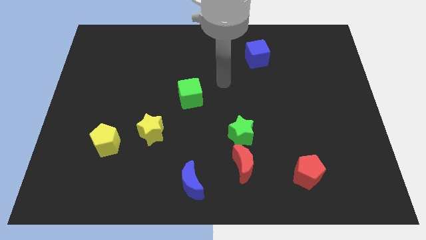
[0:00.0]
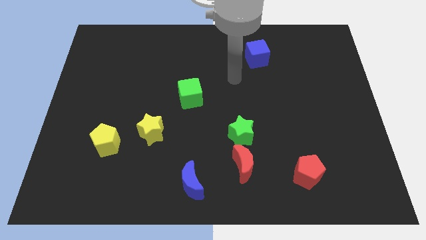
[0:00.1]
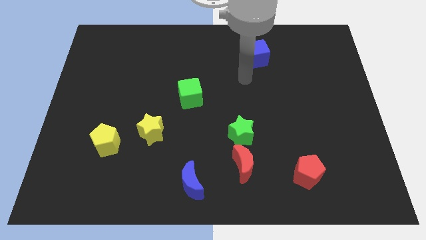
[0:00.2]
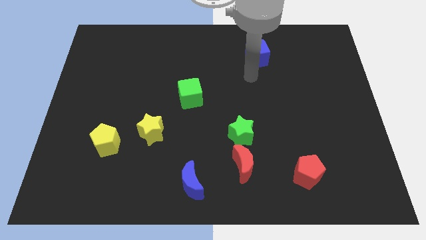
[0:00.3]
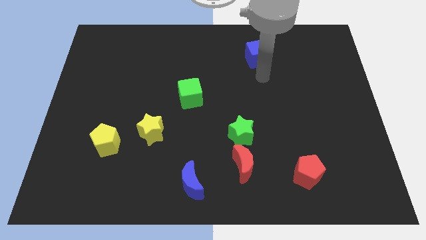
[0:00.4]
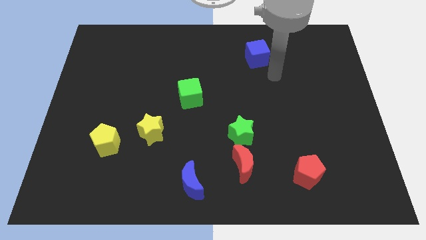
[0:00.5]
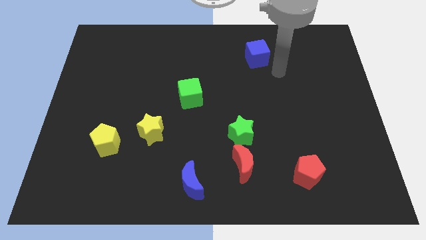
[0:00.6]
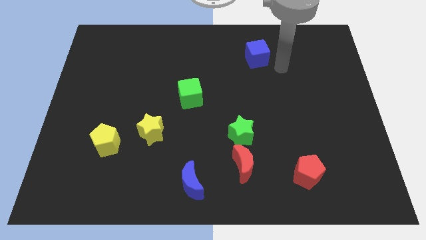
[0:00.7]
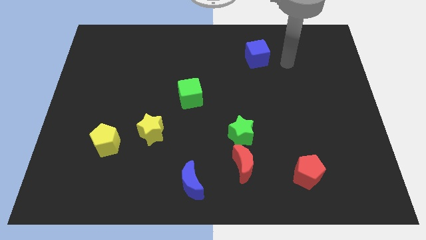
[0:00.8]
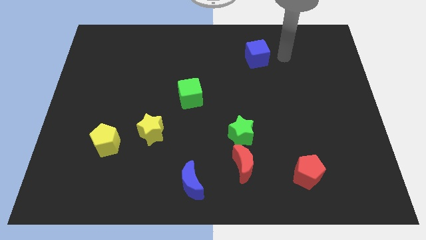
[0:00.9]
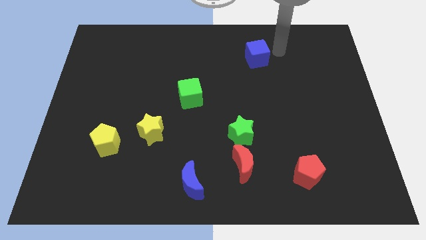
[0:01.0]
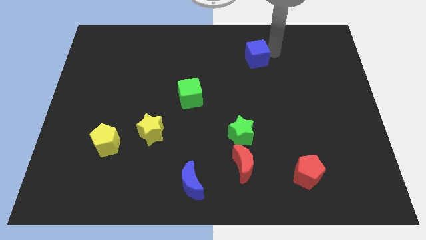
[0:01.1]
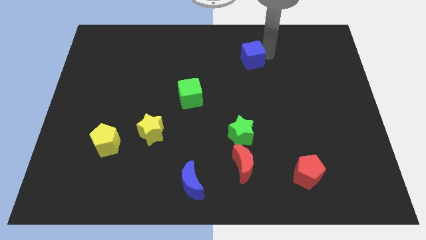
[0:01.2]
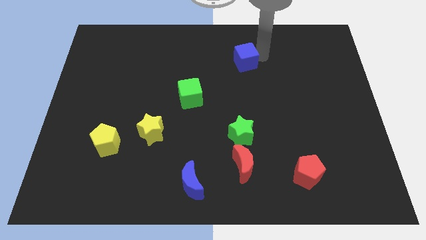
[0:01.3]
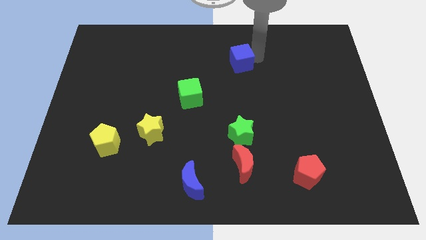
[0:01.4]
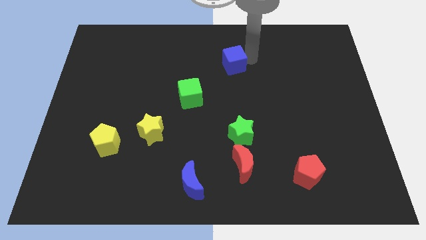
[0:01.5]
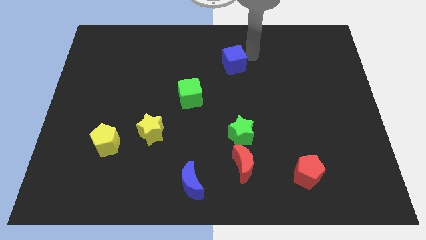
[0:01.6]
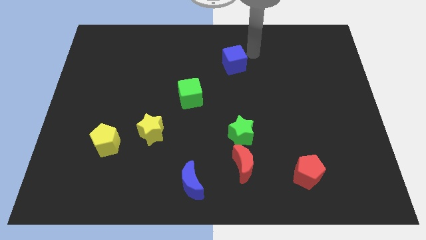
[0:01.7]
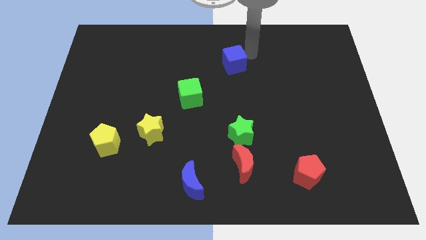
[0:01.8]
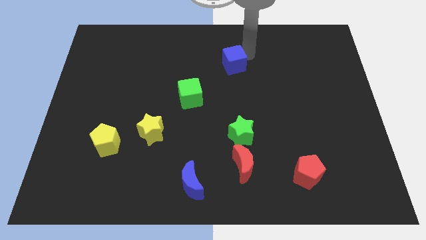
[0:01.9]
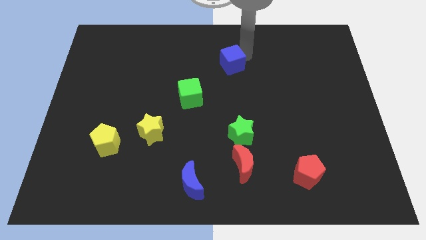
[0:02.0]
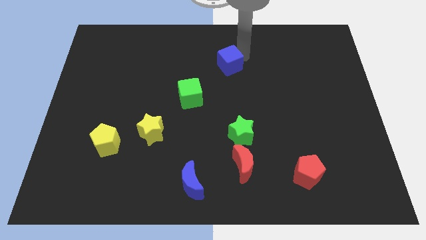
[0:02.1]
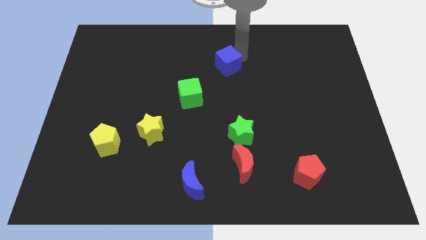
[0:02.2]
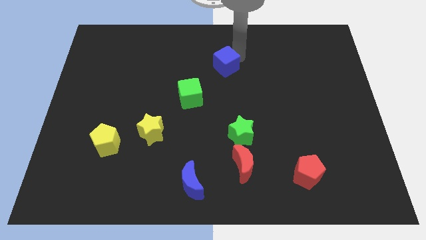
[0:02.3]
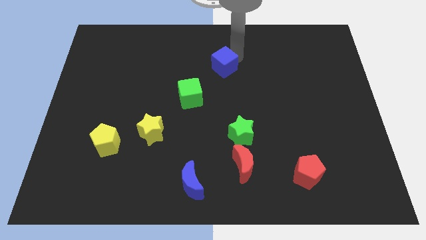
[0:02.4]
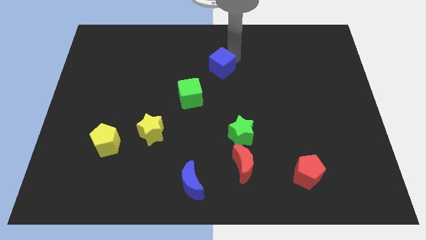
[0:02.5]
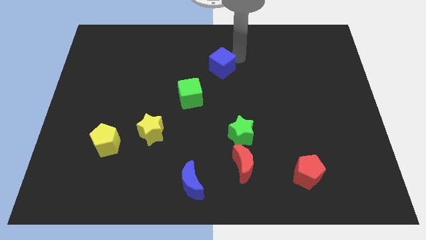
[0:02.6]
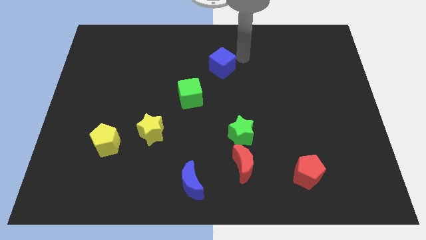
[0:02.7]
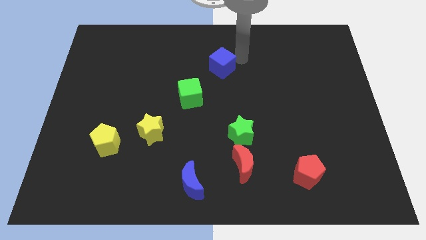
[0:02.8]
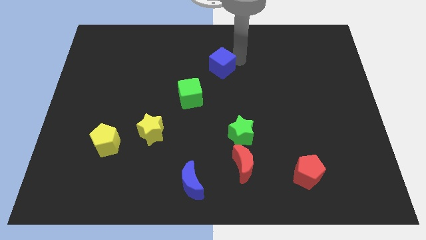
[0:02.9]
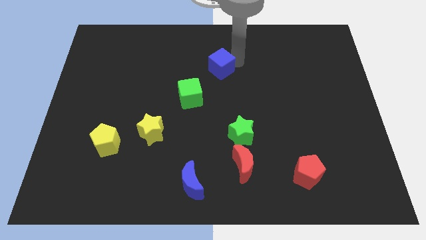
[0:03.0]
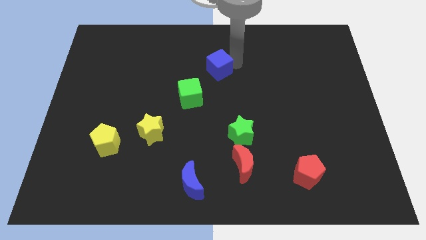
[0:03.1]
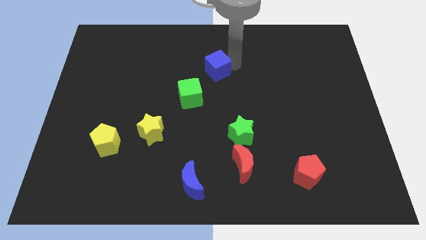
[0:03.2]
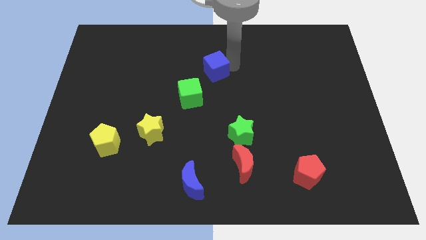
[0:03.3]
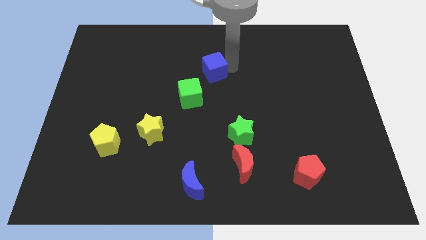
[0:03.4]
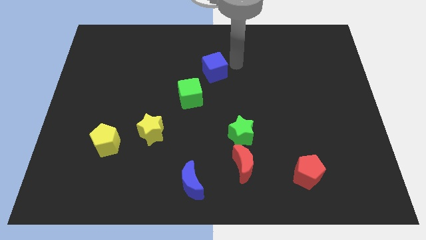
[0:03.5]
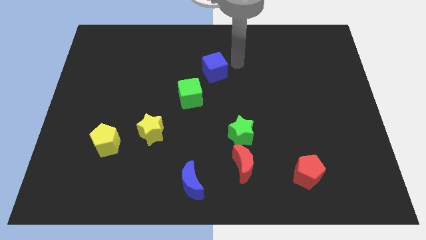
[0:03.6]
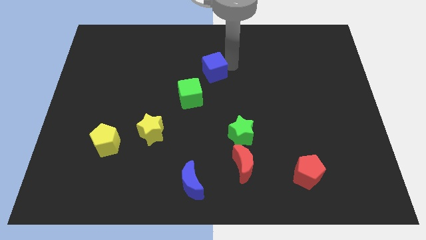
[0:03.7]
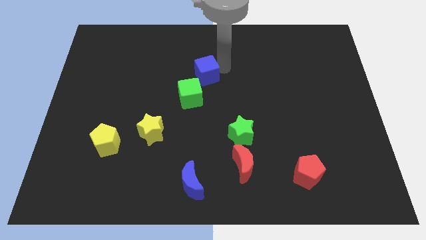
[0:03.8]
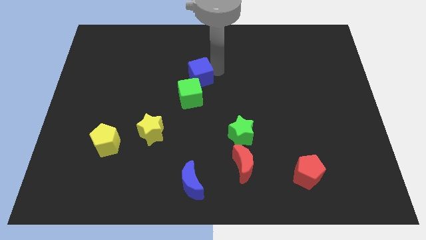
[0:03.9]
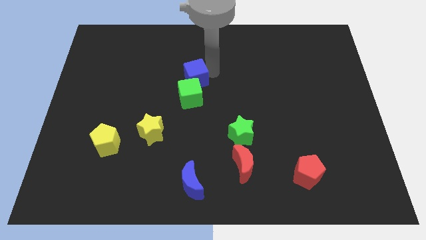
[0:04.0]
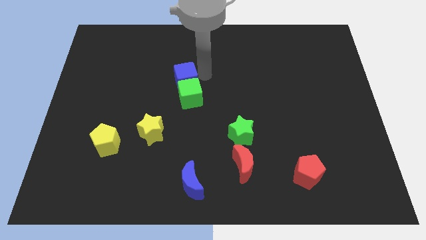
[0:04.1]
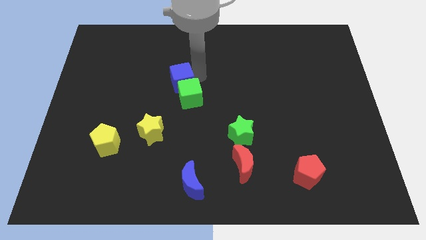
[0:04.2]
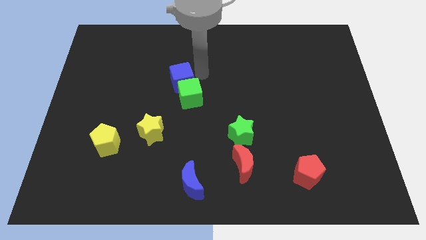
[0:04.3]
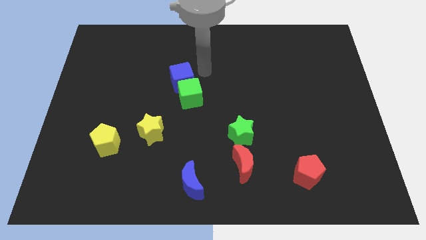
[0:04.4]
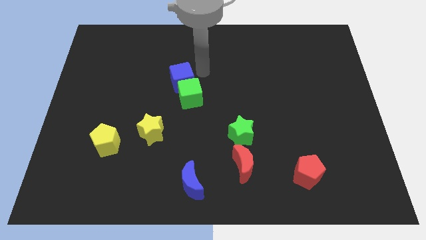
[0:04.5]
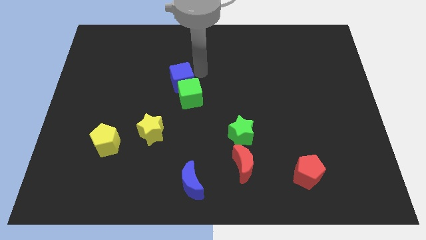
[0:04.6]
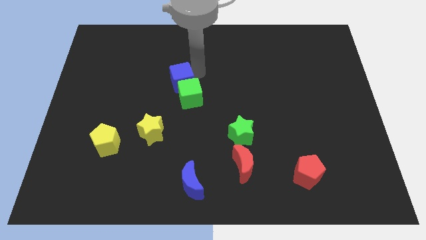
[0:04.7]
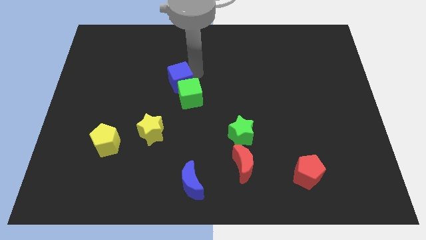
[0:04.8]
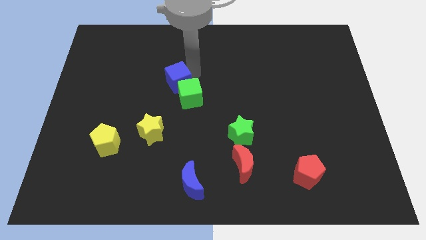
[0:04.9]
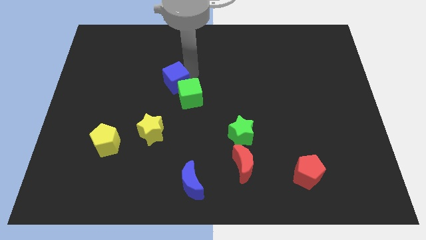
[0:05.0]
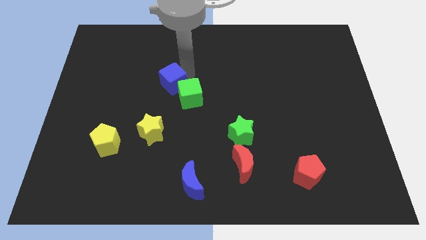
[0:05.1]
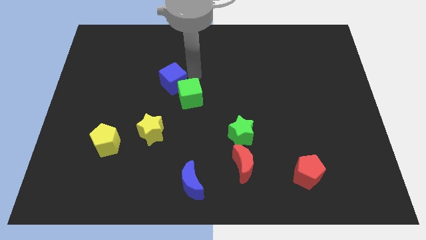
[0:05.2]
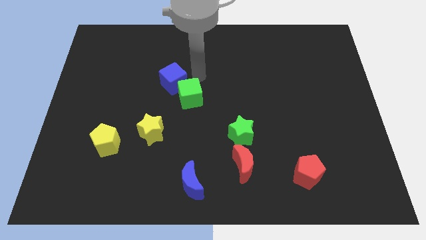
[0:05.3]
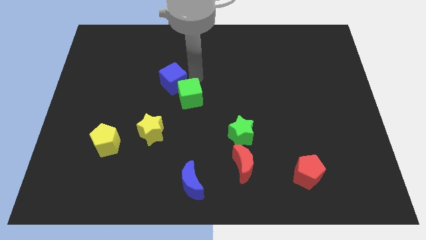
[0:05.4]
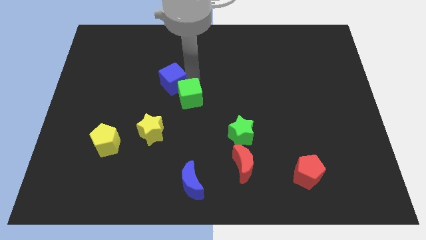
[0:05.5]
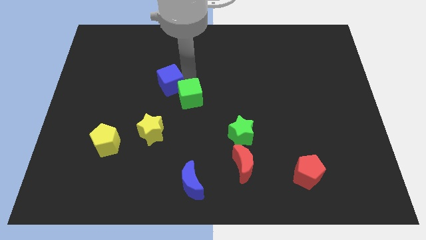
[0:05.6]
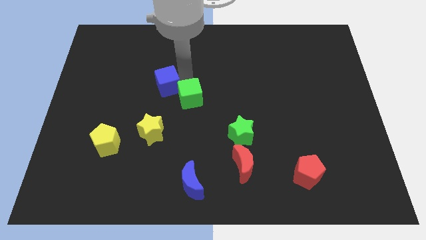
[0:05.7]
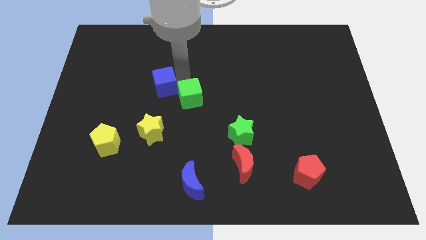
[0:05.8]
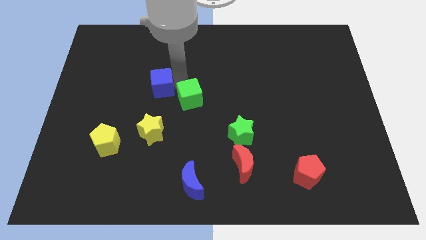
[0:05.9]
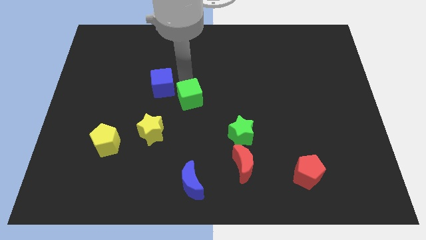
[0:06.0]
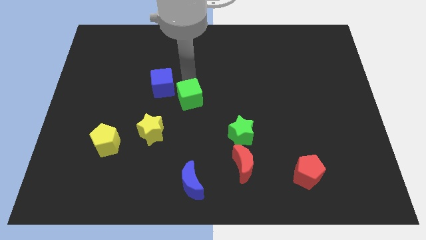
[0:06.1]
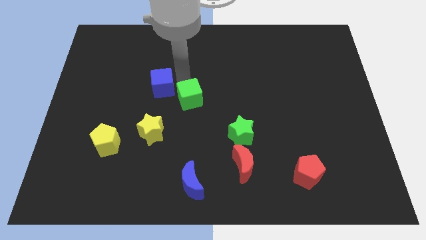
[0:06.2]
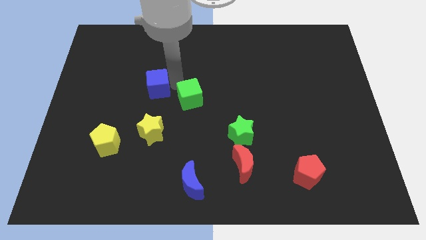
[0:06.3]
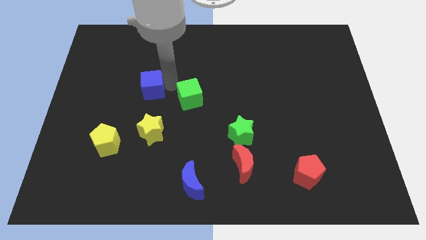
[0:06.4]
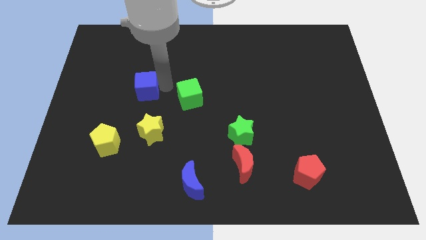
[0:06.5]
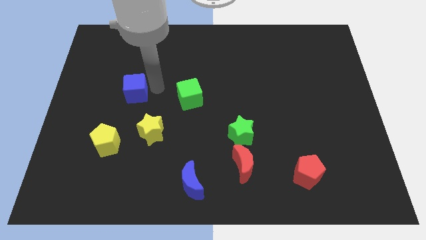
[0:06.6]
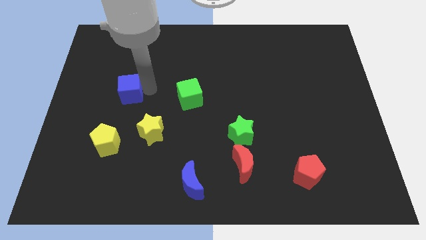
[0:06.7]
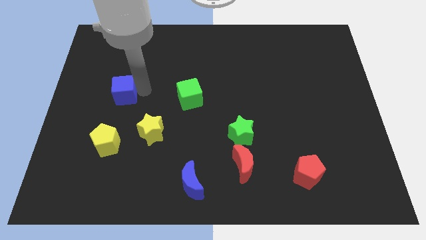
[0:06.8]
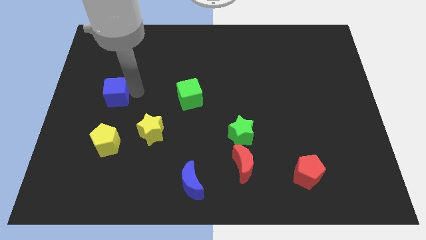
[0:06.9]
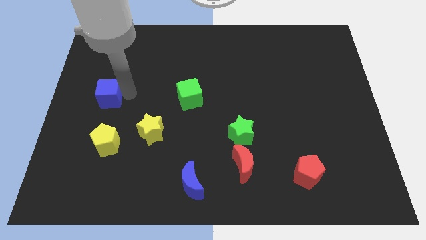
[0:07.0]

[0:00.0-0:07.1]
push the blue cube to the left side
